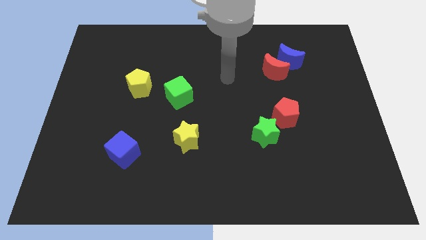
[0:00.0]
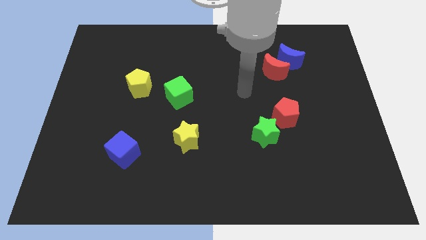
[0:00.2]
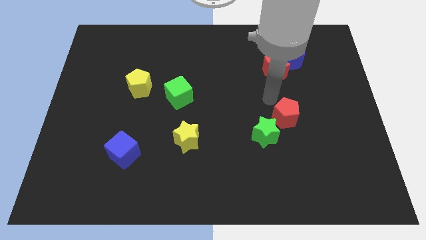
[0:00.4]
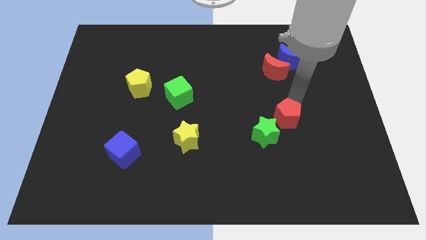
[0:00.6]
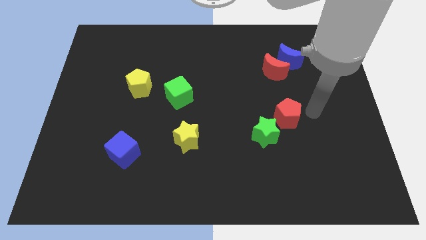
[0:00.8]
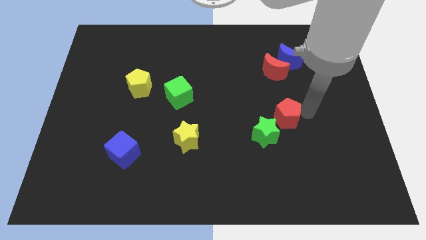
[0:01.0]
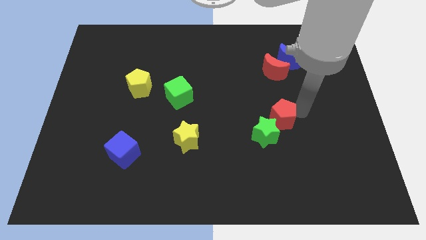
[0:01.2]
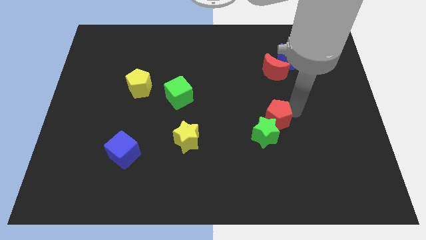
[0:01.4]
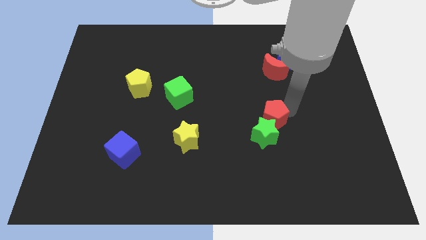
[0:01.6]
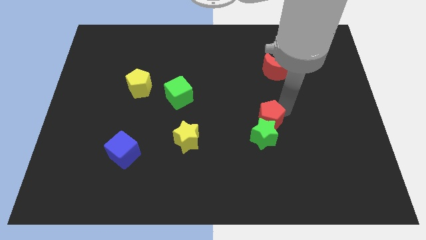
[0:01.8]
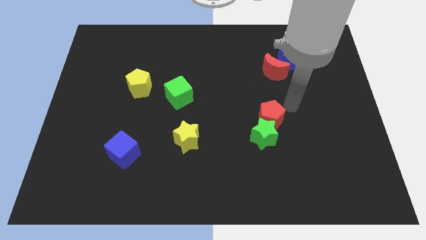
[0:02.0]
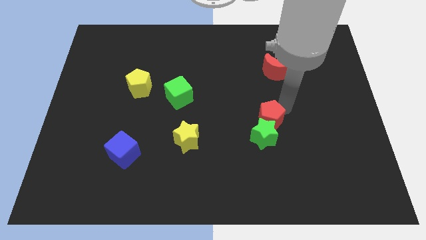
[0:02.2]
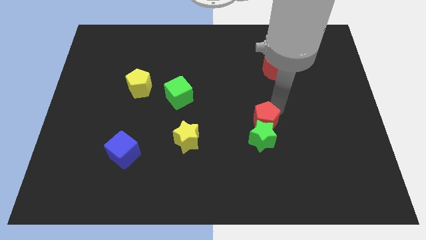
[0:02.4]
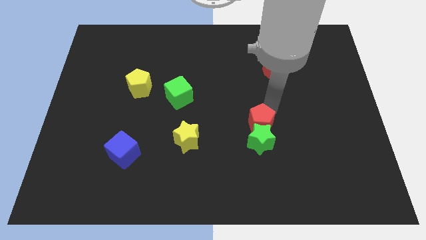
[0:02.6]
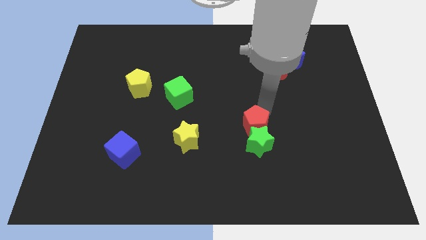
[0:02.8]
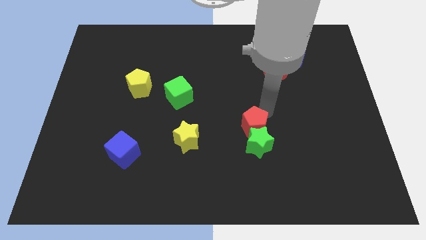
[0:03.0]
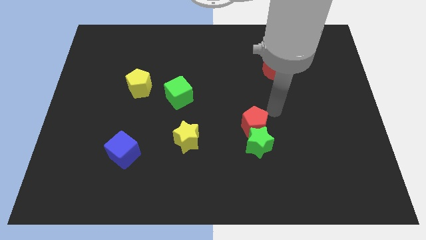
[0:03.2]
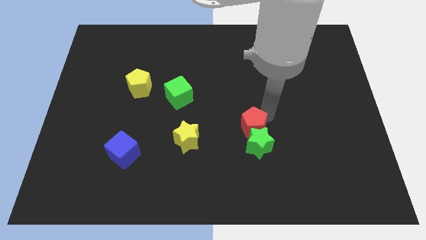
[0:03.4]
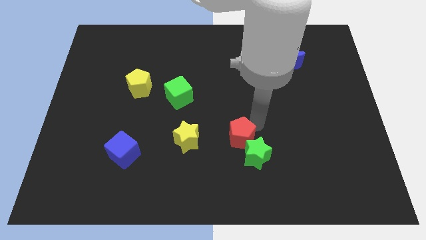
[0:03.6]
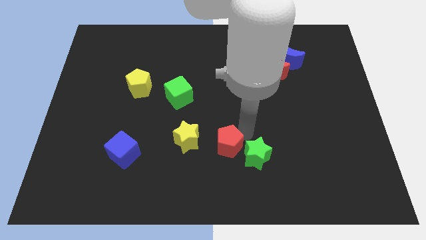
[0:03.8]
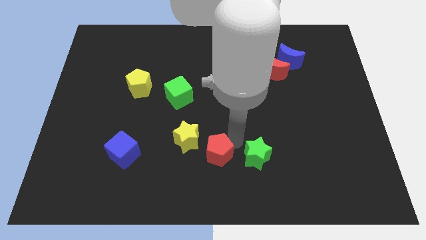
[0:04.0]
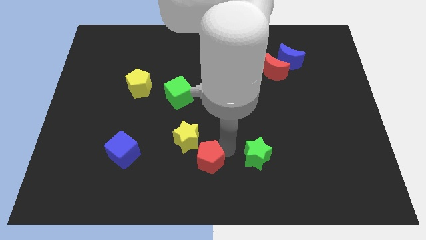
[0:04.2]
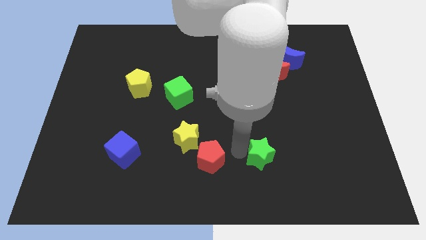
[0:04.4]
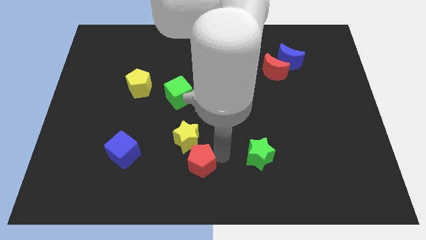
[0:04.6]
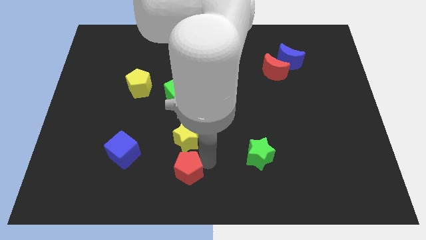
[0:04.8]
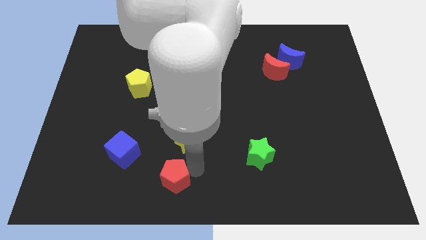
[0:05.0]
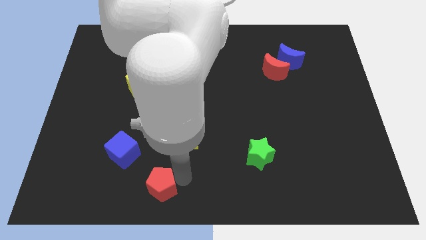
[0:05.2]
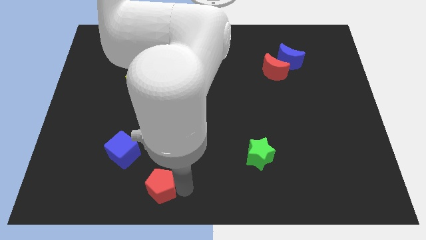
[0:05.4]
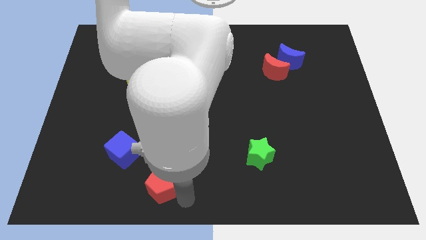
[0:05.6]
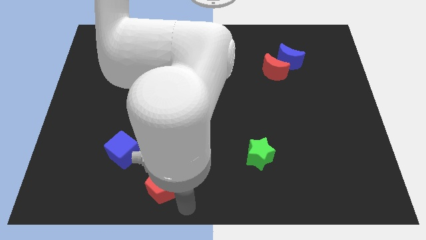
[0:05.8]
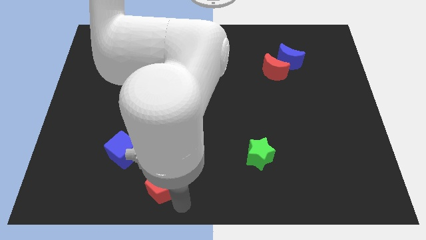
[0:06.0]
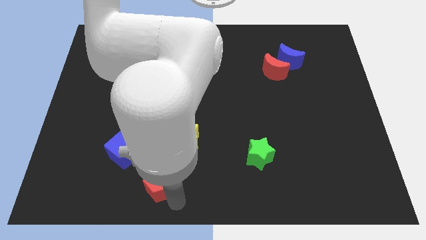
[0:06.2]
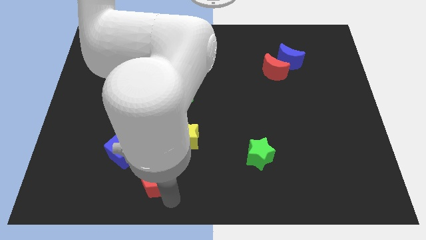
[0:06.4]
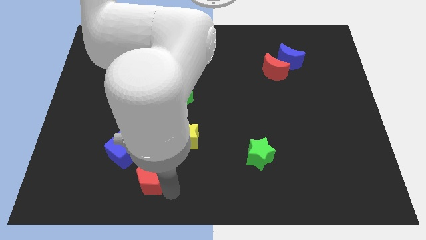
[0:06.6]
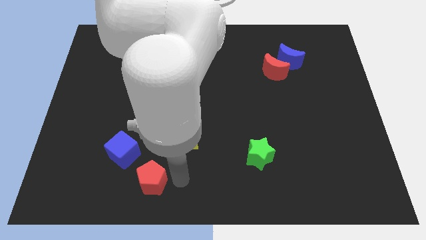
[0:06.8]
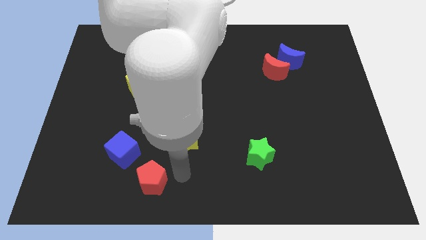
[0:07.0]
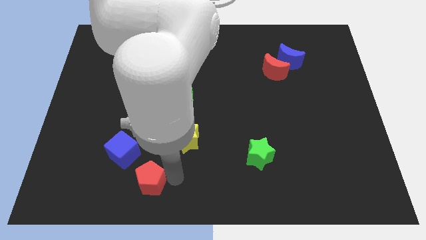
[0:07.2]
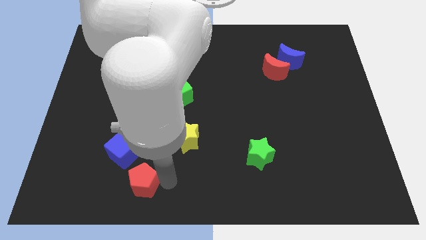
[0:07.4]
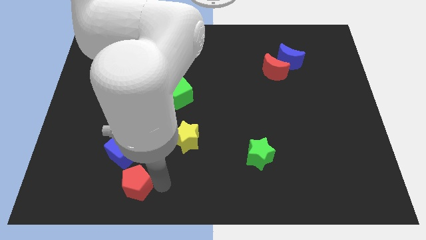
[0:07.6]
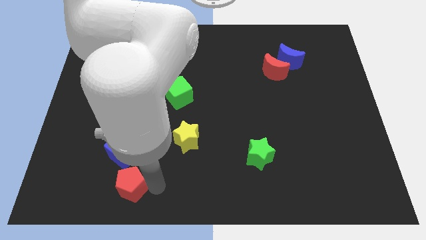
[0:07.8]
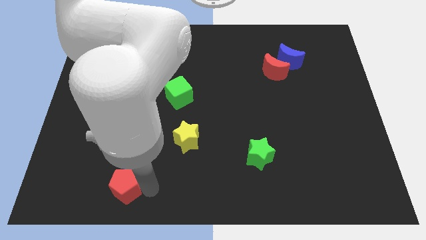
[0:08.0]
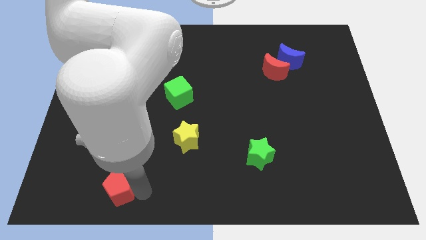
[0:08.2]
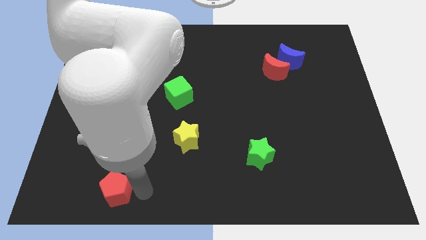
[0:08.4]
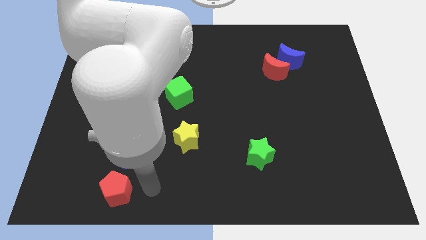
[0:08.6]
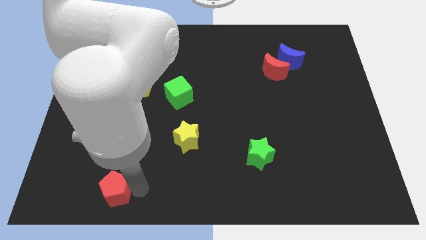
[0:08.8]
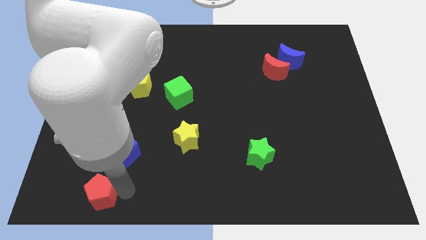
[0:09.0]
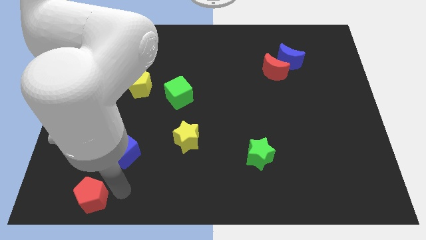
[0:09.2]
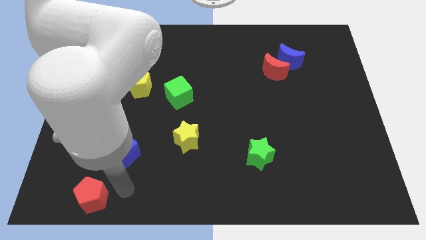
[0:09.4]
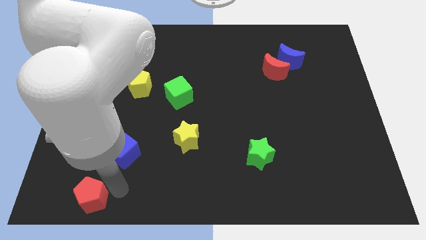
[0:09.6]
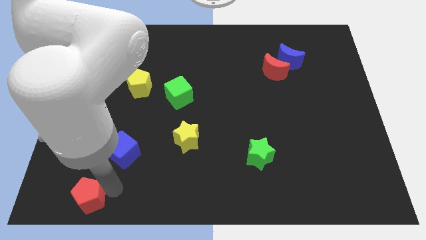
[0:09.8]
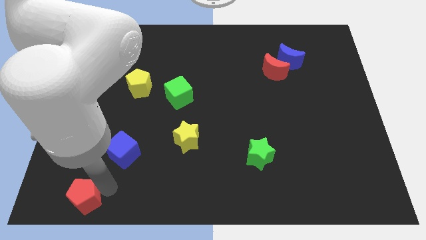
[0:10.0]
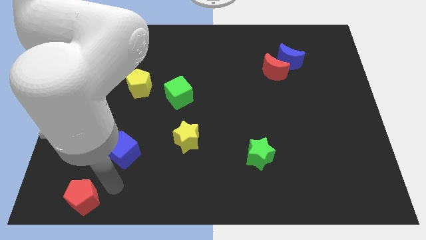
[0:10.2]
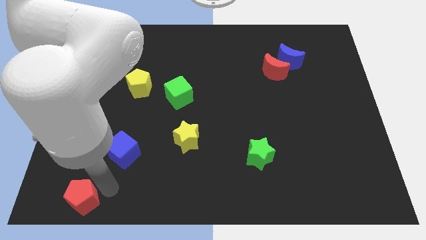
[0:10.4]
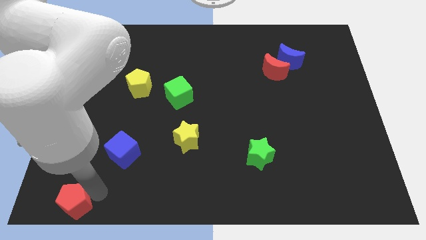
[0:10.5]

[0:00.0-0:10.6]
put the red pentagon to the lower left corner

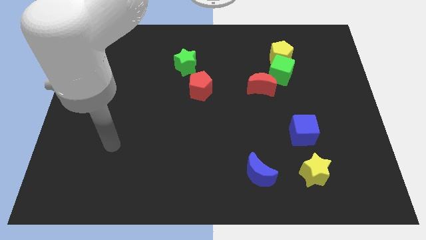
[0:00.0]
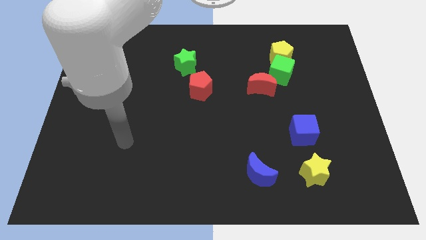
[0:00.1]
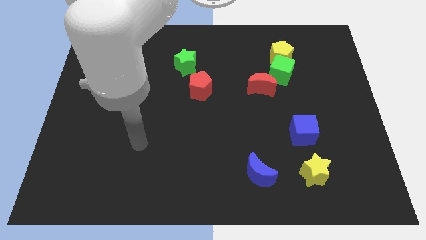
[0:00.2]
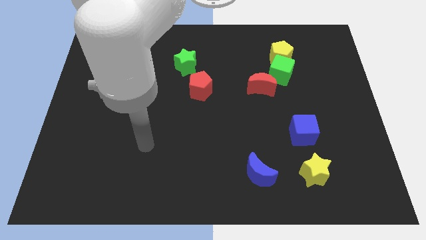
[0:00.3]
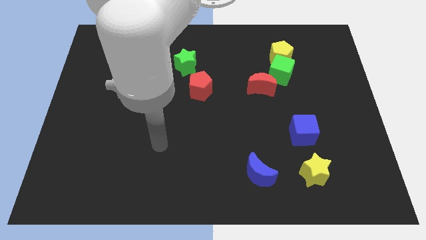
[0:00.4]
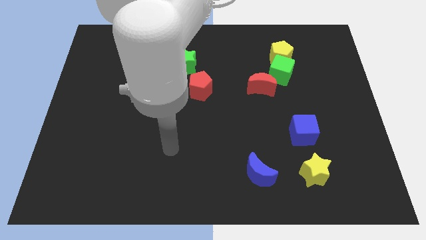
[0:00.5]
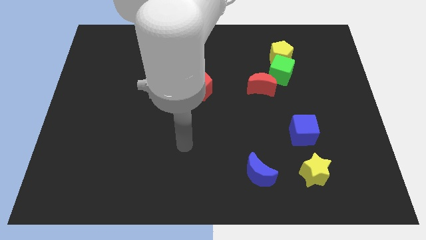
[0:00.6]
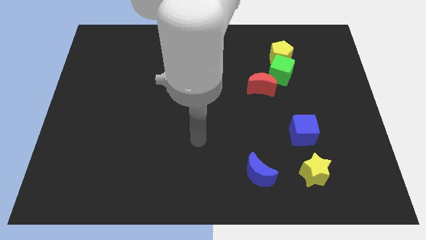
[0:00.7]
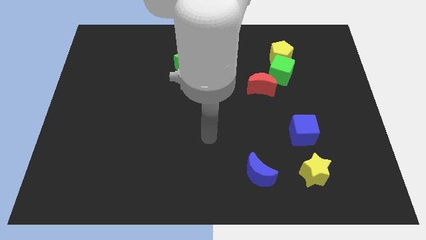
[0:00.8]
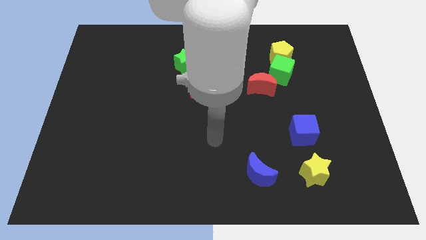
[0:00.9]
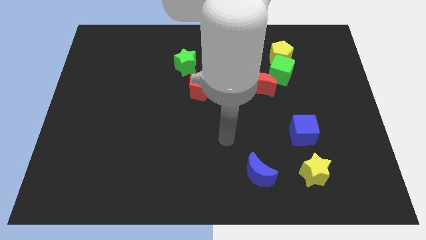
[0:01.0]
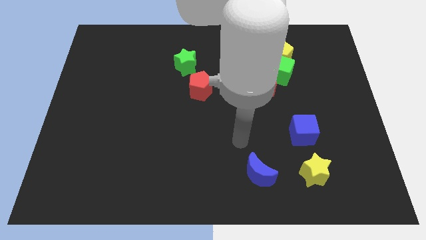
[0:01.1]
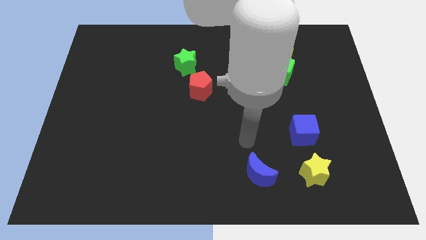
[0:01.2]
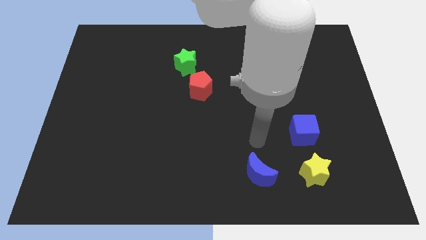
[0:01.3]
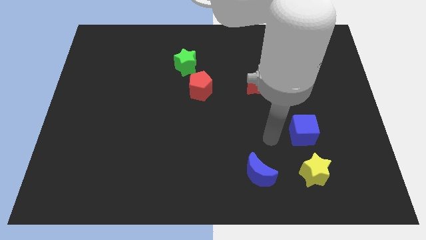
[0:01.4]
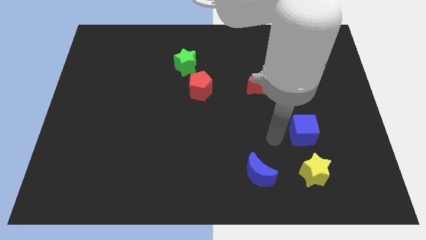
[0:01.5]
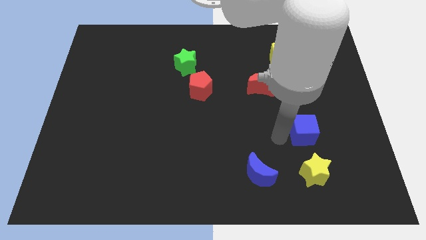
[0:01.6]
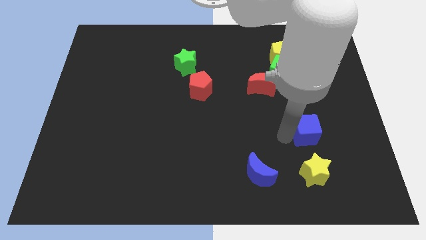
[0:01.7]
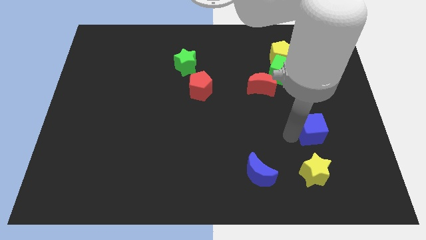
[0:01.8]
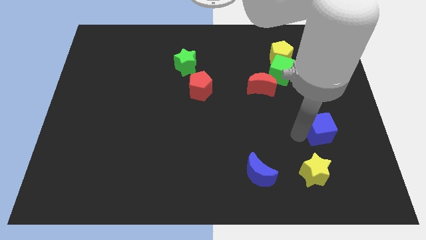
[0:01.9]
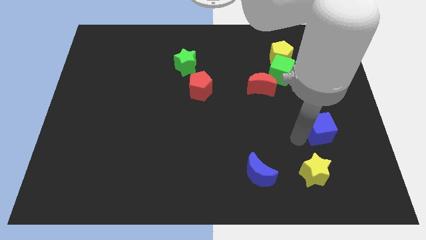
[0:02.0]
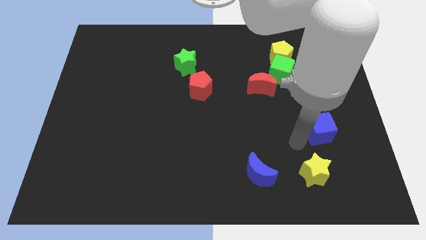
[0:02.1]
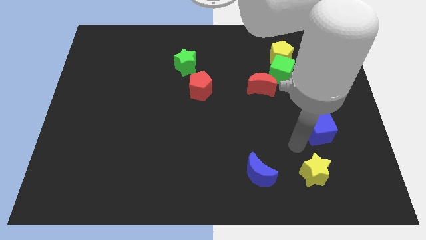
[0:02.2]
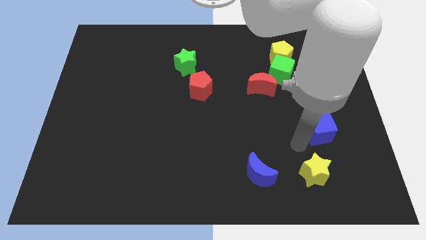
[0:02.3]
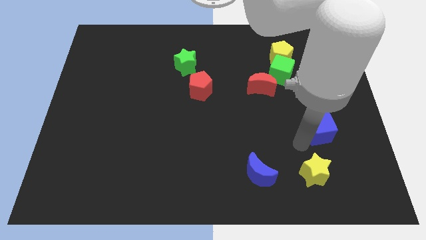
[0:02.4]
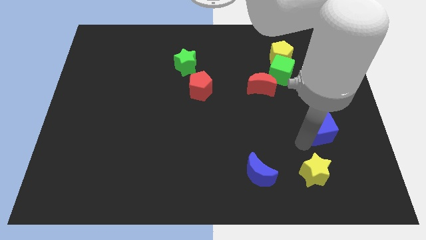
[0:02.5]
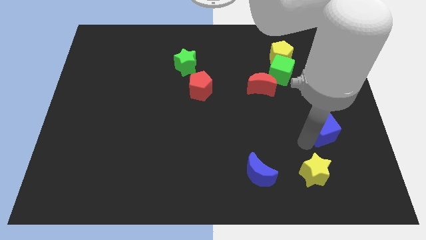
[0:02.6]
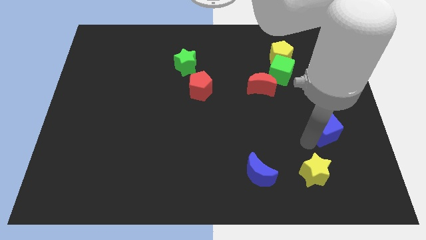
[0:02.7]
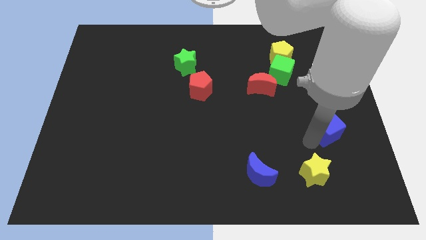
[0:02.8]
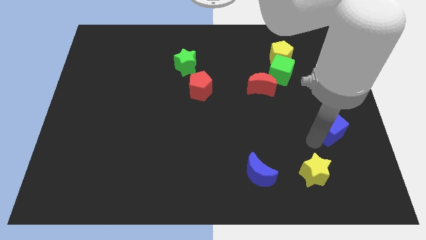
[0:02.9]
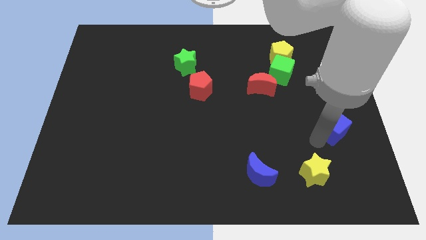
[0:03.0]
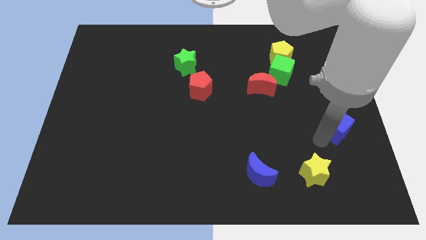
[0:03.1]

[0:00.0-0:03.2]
slide the blue cube to the right side
